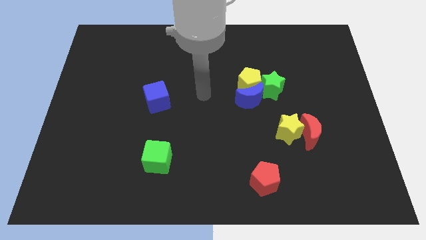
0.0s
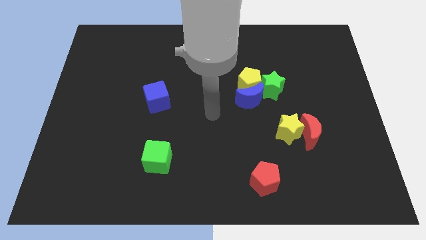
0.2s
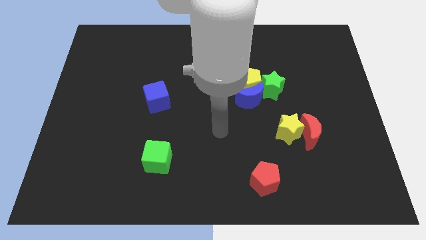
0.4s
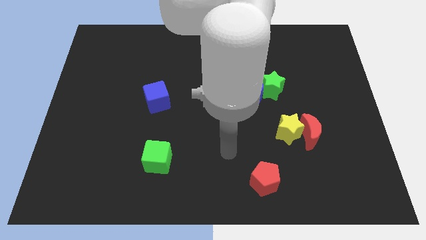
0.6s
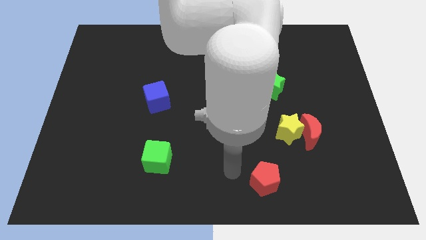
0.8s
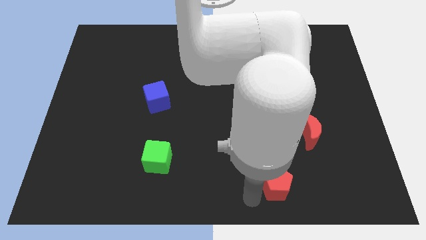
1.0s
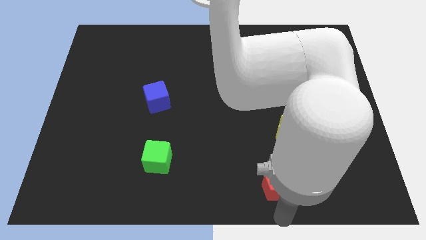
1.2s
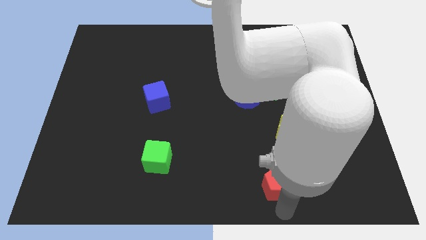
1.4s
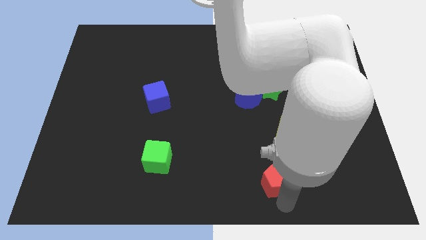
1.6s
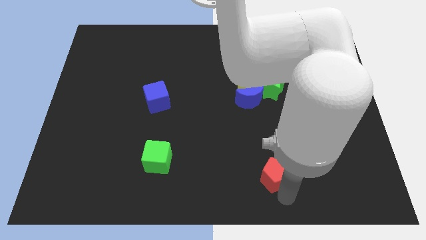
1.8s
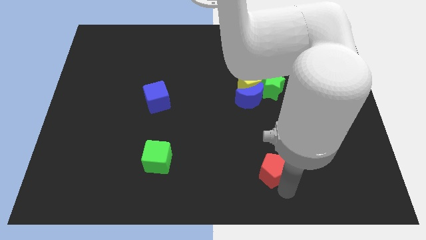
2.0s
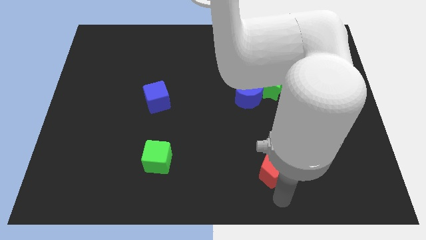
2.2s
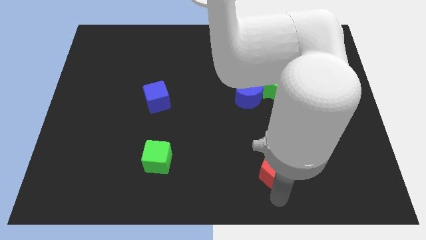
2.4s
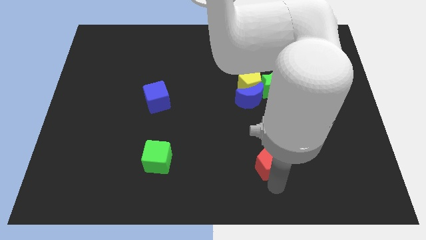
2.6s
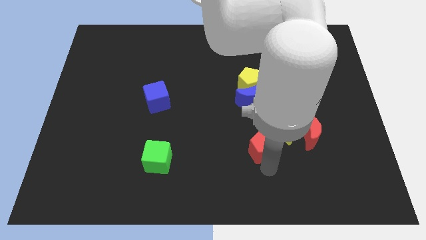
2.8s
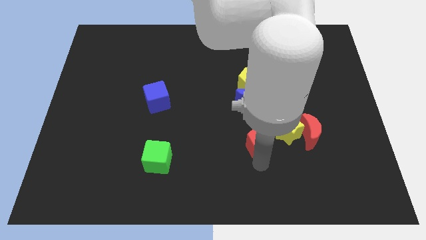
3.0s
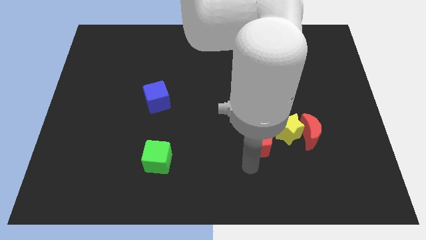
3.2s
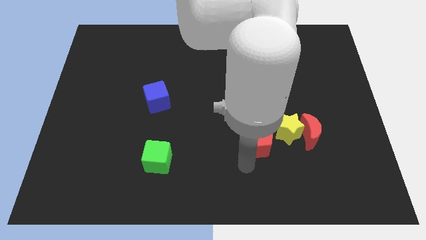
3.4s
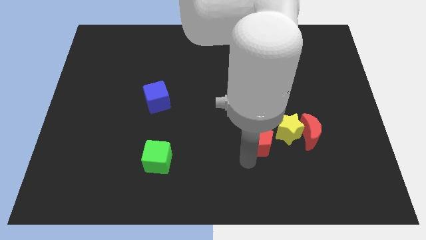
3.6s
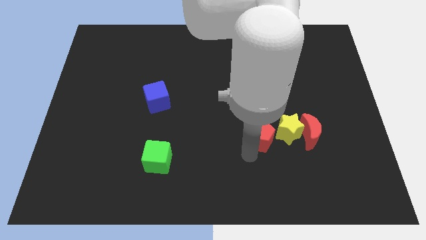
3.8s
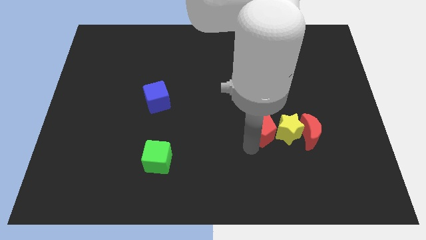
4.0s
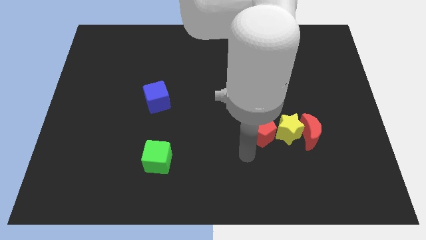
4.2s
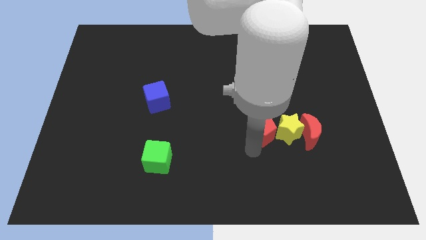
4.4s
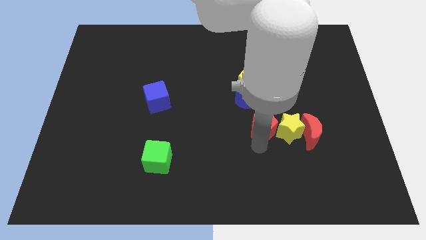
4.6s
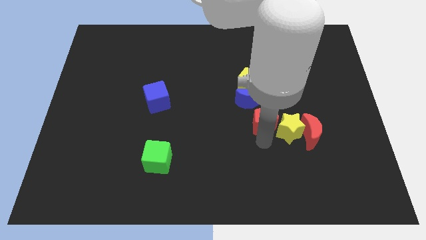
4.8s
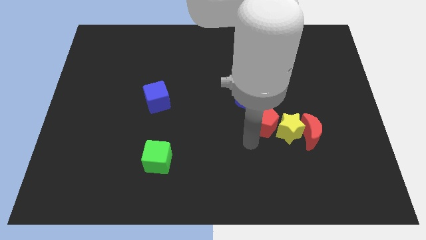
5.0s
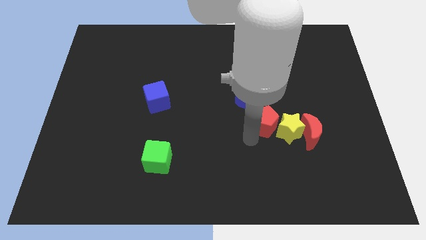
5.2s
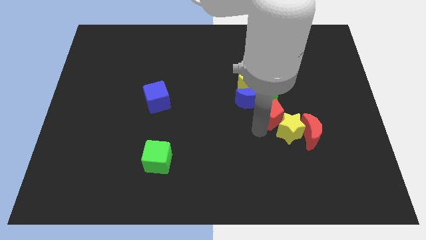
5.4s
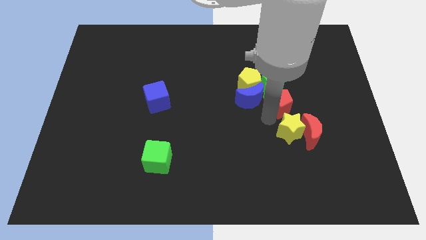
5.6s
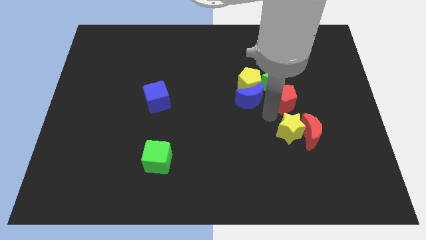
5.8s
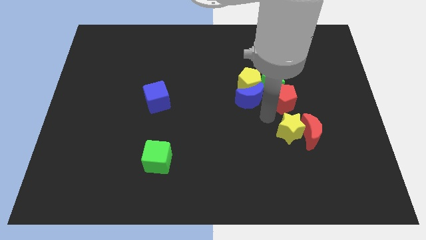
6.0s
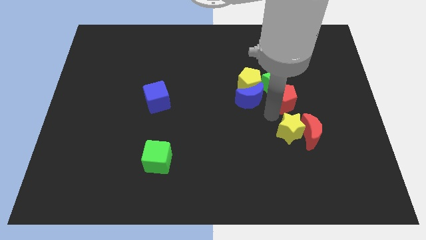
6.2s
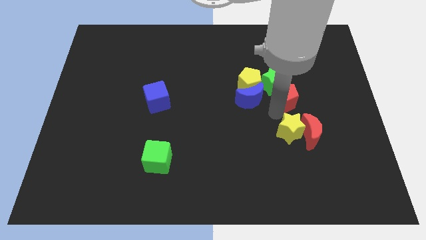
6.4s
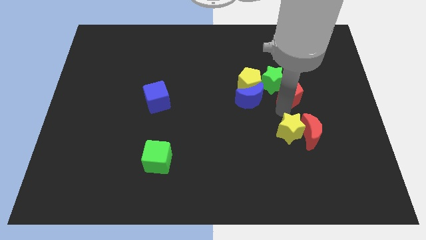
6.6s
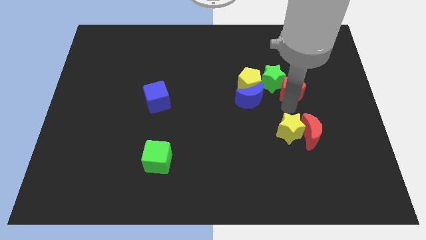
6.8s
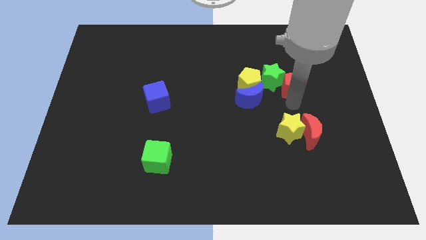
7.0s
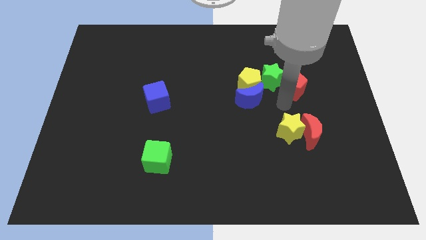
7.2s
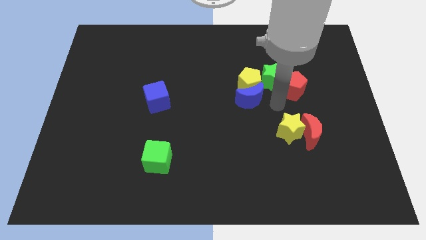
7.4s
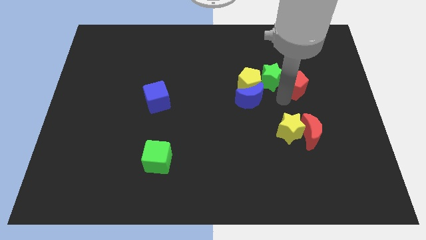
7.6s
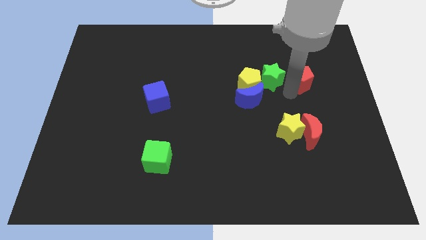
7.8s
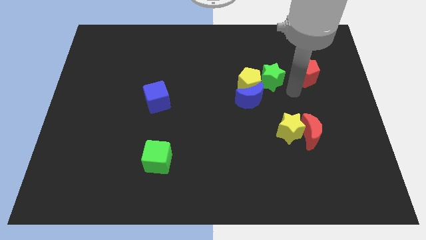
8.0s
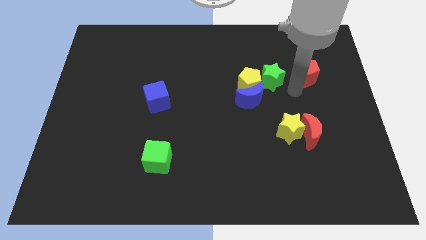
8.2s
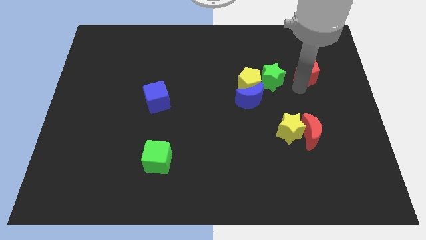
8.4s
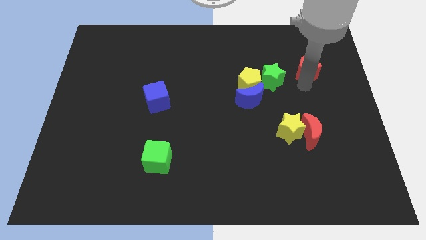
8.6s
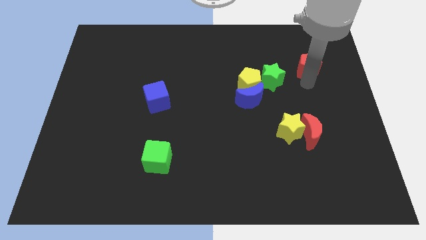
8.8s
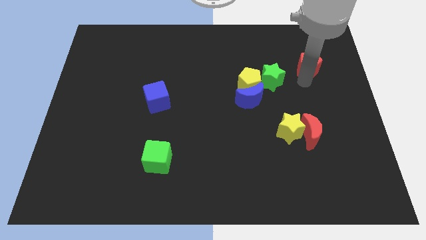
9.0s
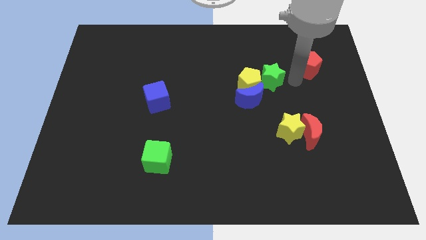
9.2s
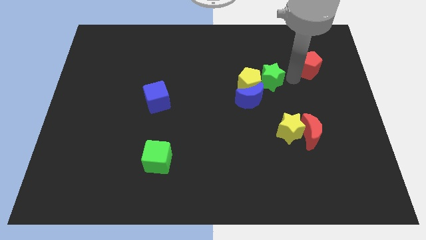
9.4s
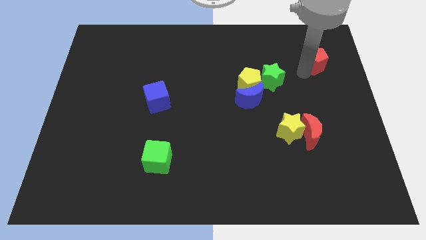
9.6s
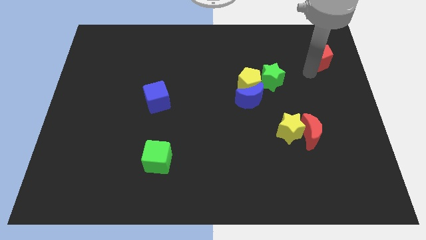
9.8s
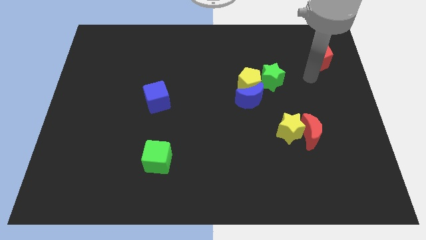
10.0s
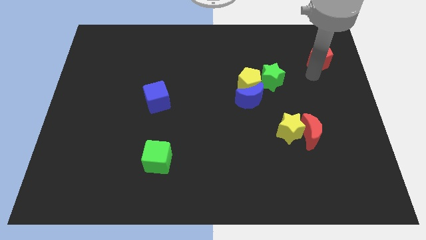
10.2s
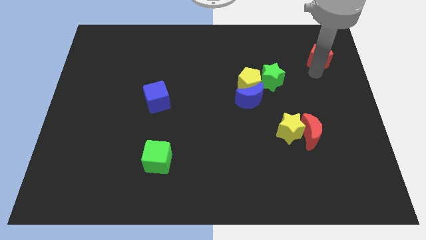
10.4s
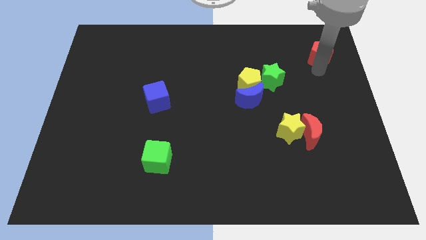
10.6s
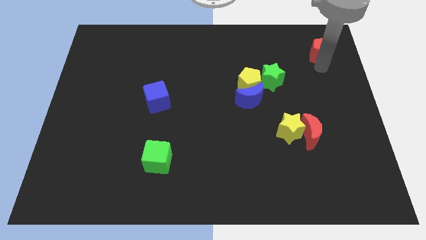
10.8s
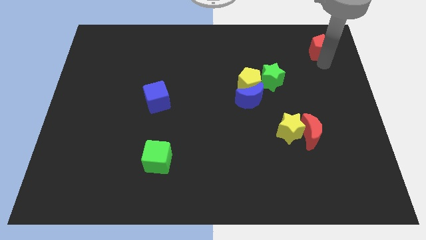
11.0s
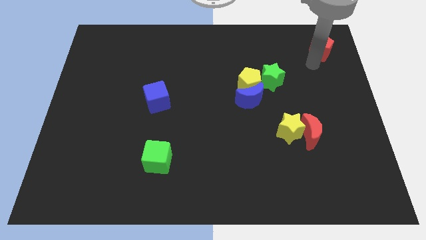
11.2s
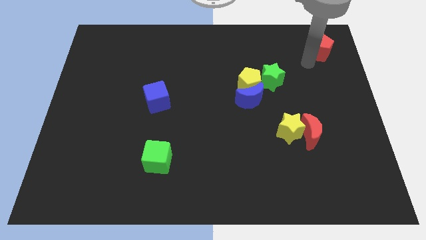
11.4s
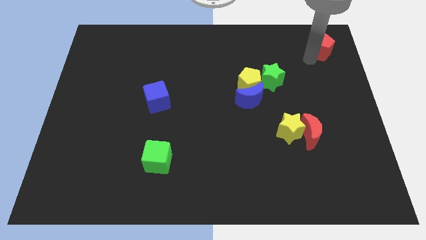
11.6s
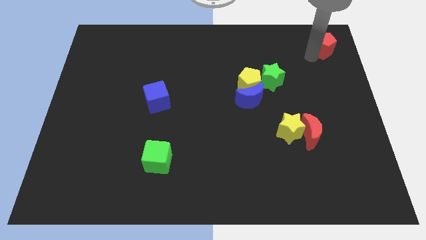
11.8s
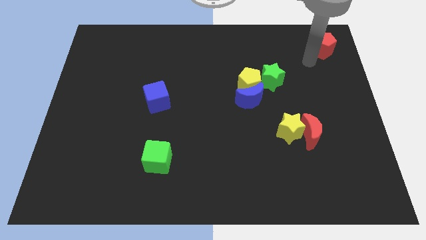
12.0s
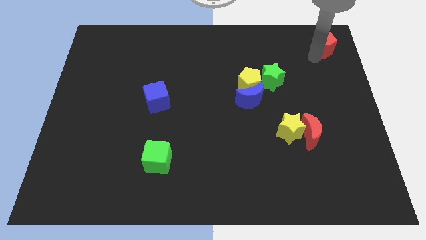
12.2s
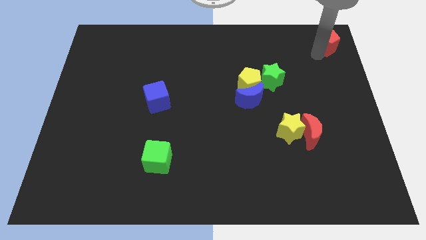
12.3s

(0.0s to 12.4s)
put the red pentagon to the top right corner

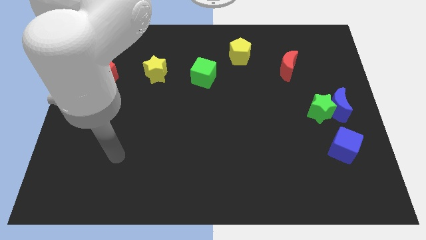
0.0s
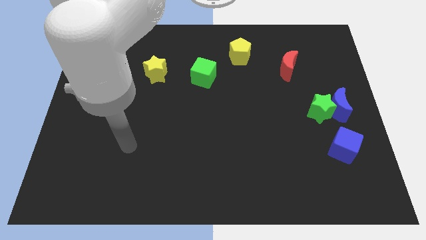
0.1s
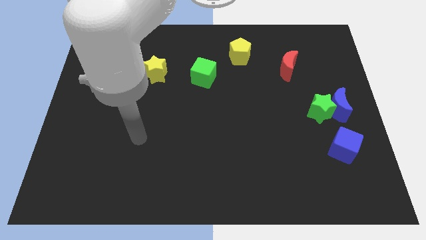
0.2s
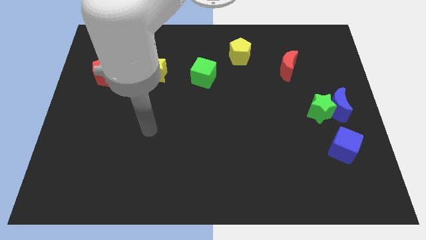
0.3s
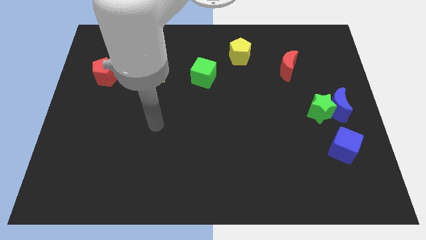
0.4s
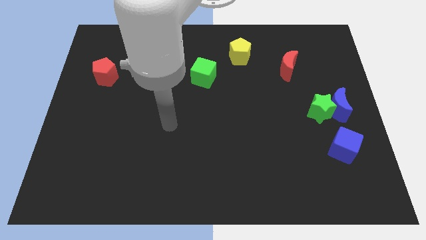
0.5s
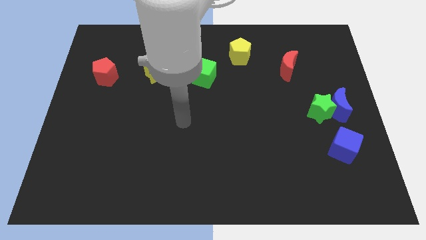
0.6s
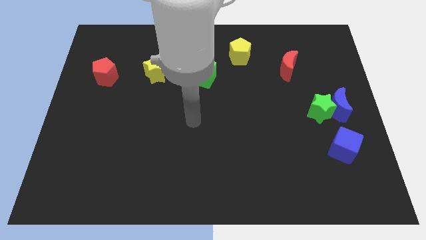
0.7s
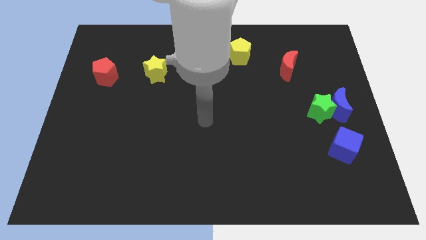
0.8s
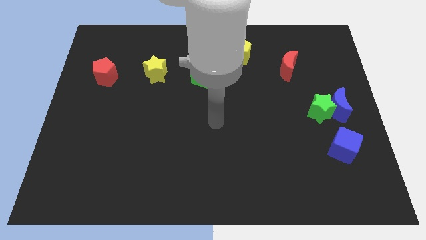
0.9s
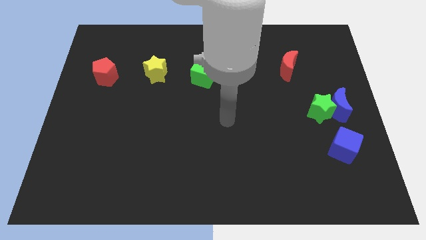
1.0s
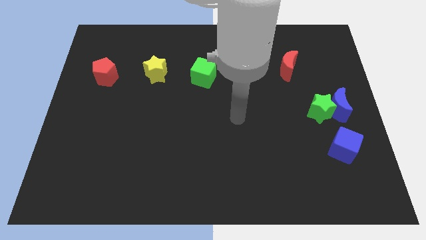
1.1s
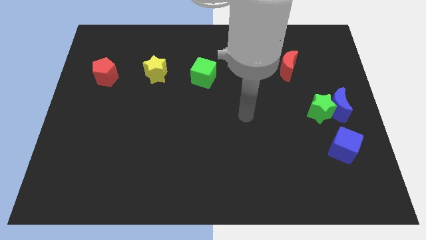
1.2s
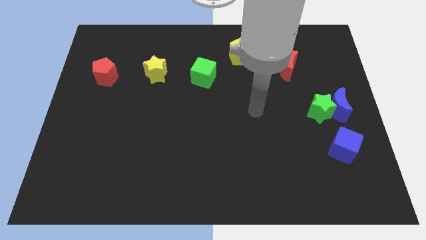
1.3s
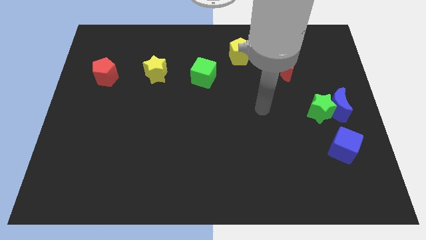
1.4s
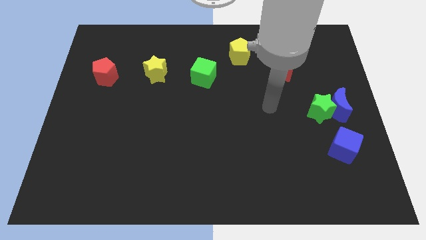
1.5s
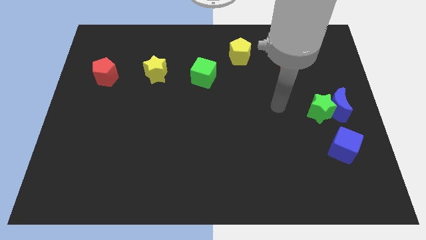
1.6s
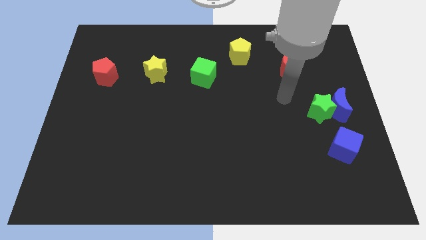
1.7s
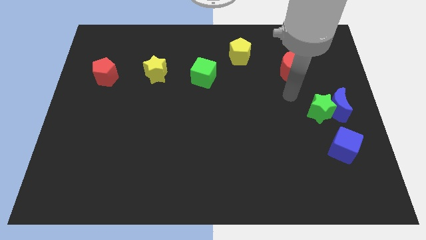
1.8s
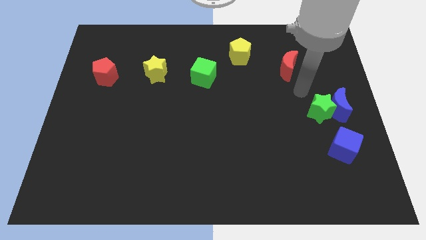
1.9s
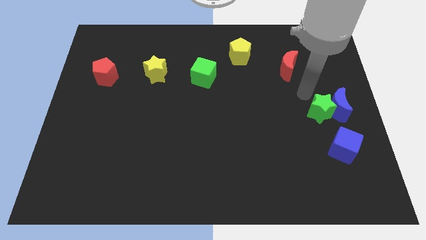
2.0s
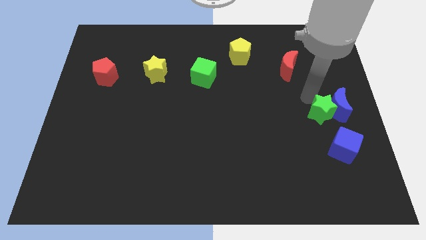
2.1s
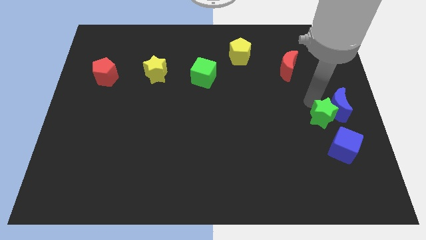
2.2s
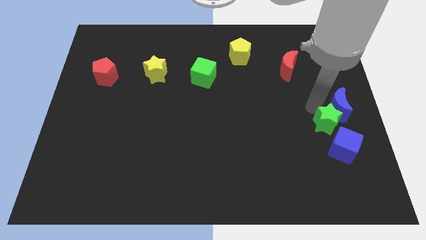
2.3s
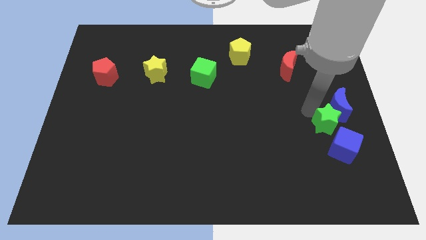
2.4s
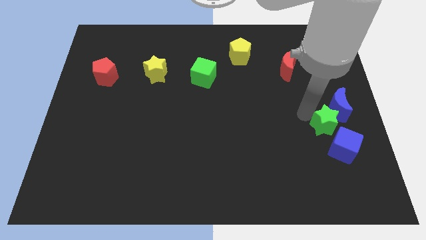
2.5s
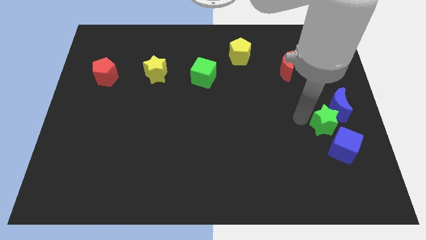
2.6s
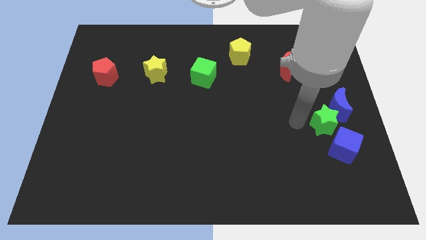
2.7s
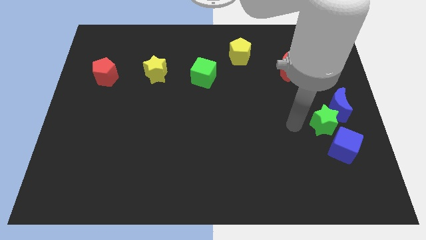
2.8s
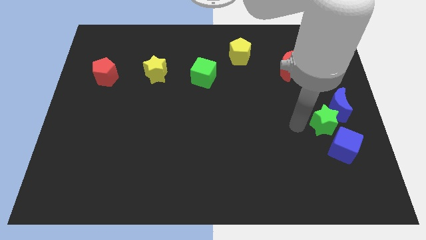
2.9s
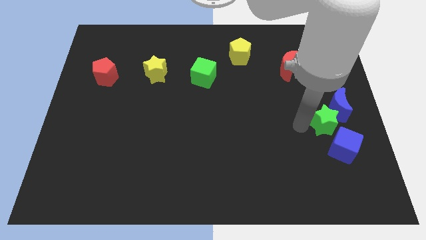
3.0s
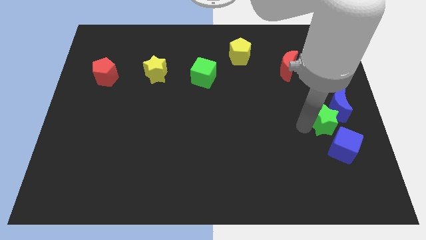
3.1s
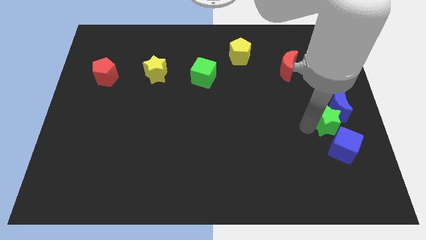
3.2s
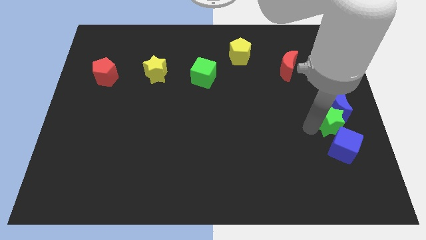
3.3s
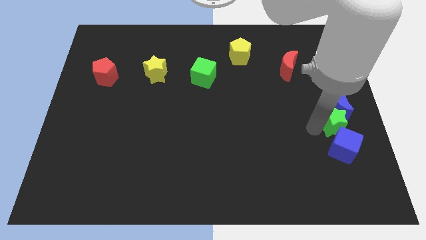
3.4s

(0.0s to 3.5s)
put the green star to the center right
